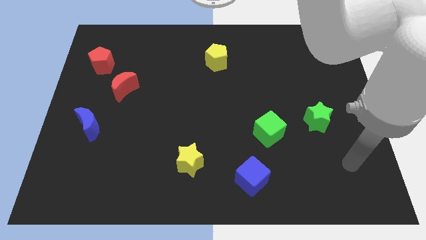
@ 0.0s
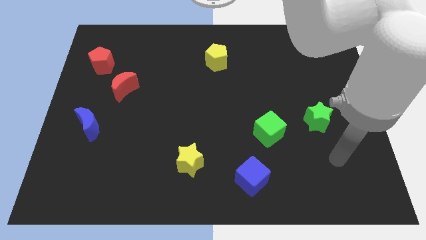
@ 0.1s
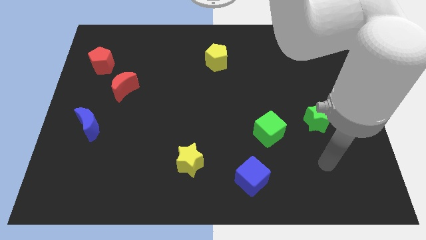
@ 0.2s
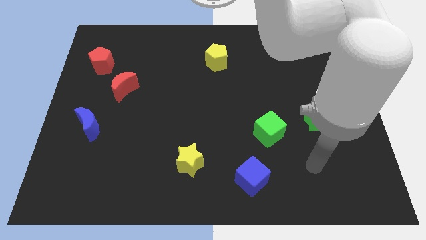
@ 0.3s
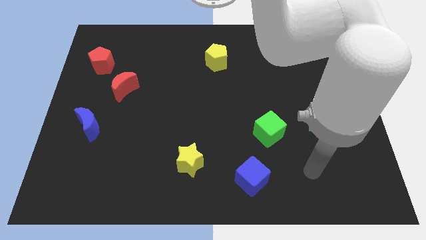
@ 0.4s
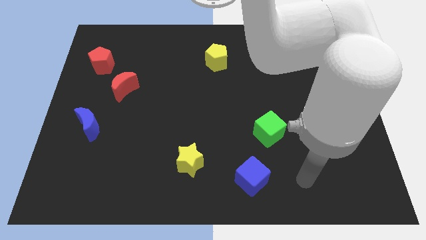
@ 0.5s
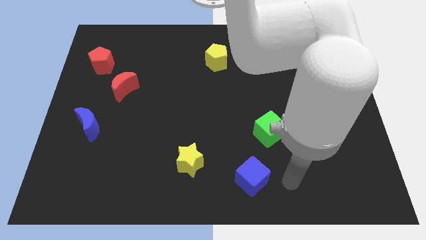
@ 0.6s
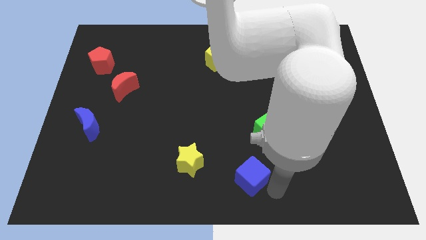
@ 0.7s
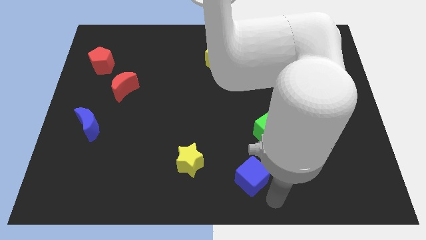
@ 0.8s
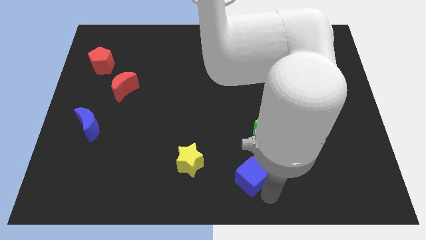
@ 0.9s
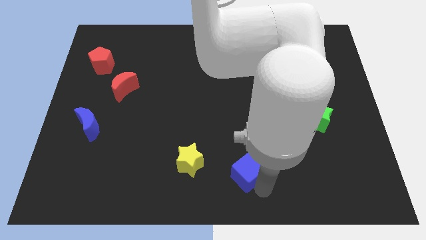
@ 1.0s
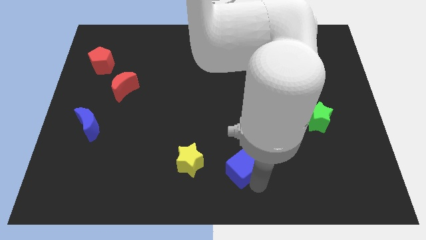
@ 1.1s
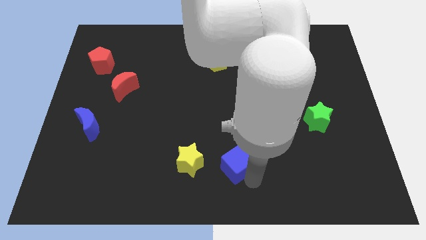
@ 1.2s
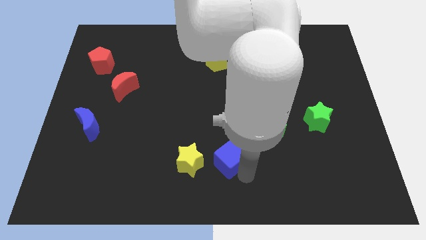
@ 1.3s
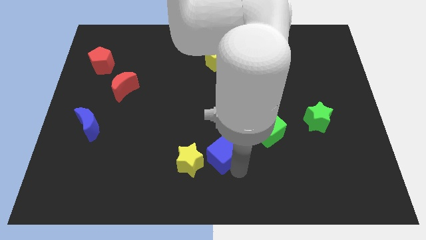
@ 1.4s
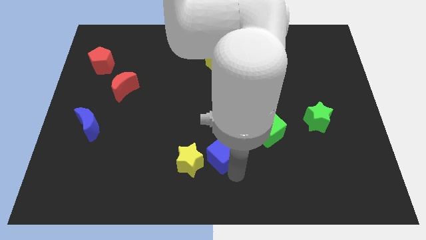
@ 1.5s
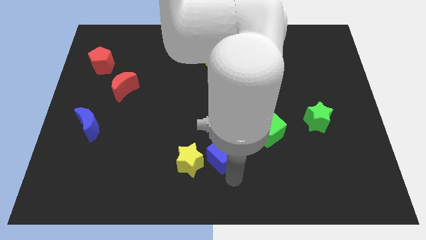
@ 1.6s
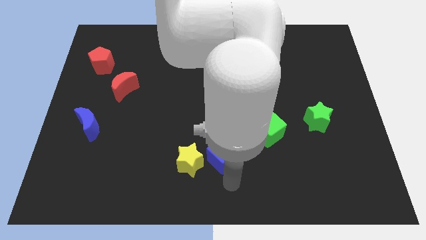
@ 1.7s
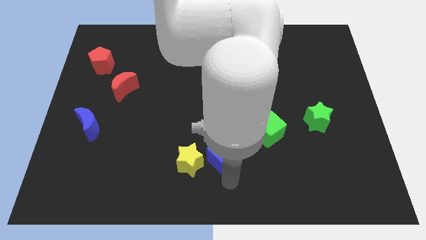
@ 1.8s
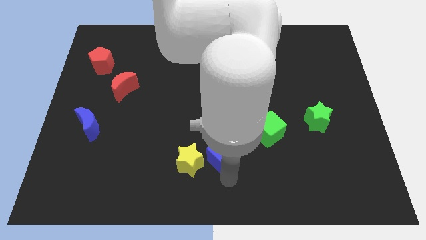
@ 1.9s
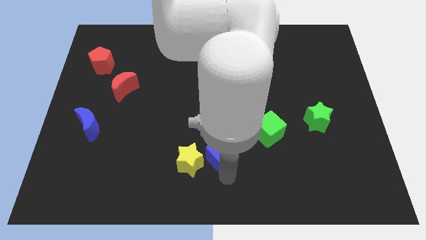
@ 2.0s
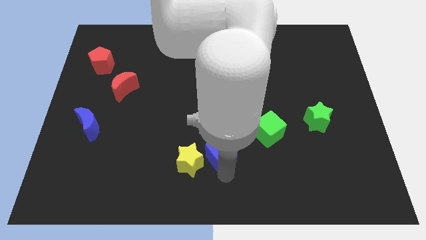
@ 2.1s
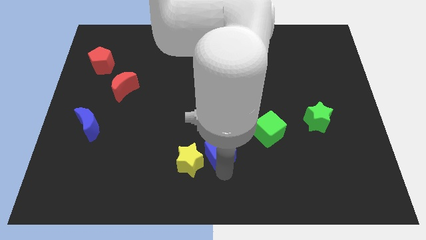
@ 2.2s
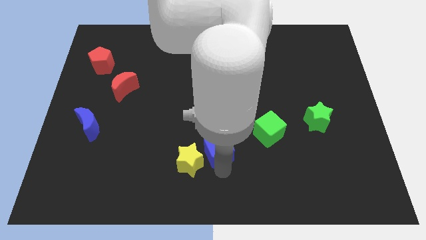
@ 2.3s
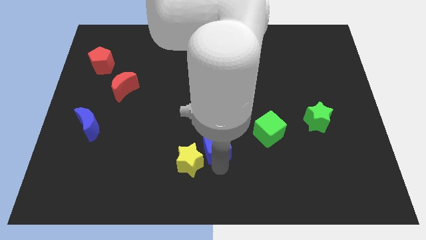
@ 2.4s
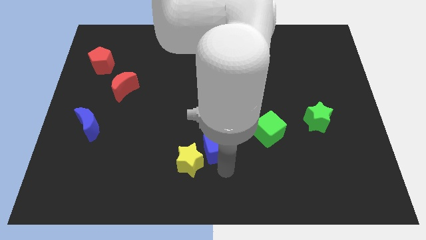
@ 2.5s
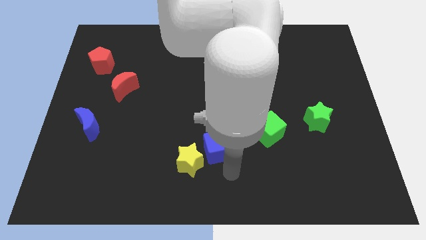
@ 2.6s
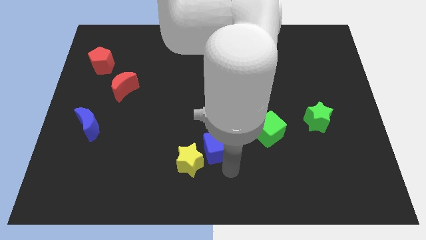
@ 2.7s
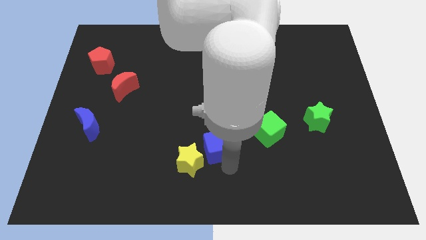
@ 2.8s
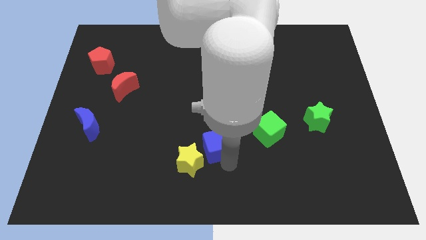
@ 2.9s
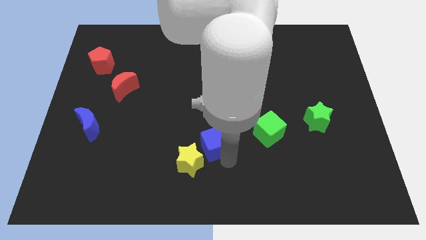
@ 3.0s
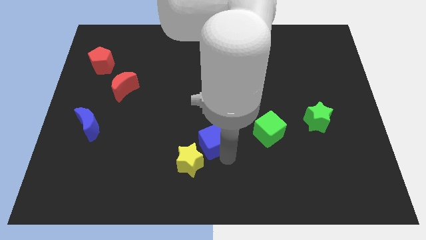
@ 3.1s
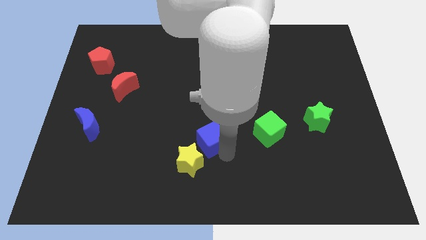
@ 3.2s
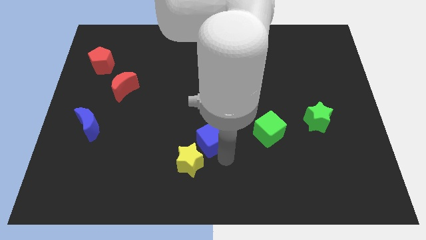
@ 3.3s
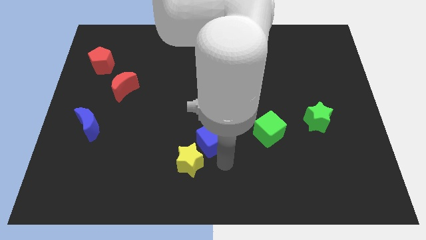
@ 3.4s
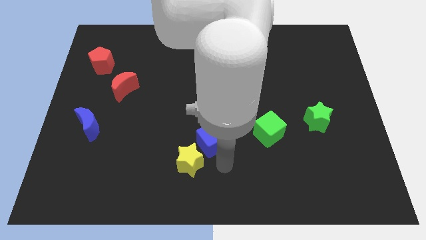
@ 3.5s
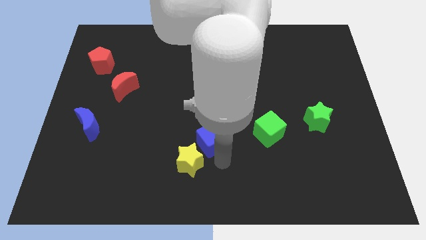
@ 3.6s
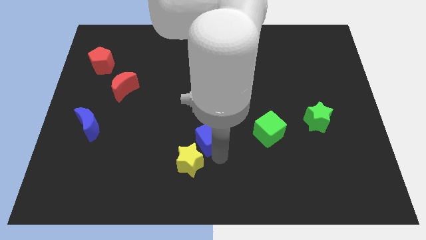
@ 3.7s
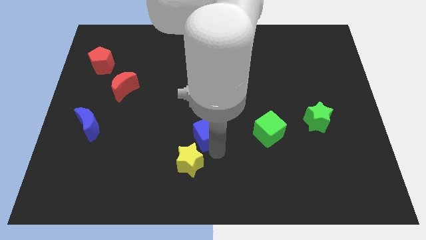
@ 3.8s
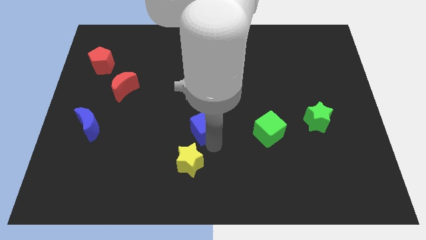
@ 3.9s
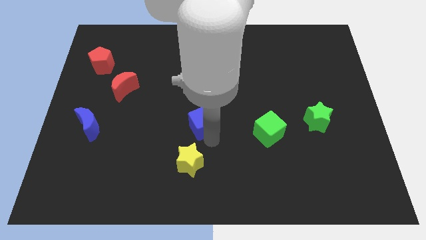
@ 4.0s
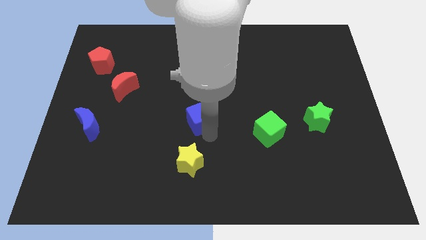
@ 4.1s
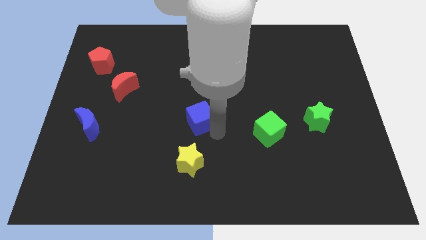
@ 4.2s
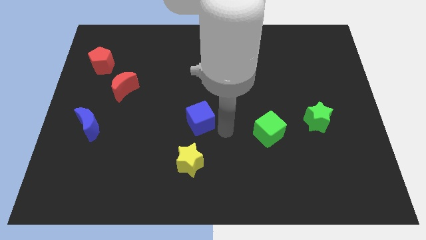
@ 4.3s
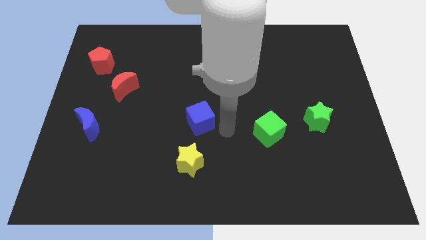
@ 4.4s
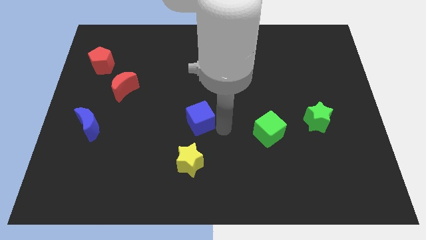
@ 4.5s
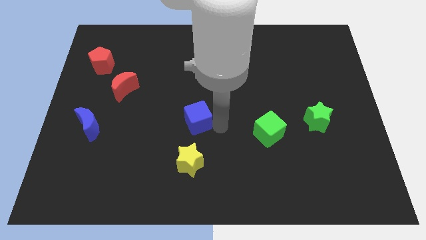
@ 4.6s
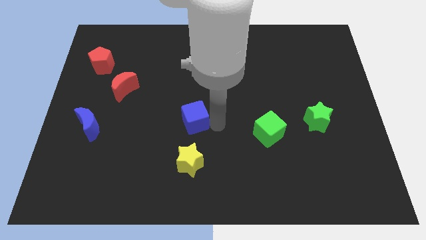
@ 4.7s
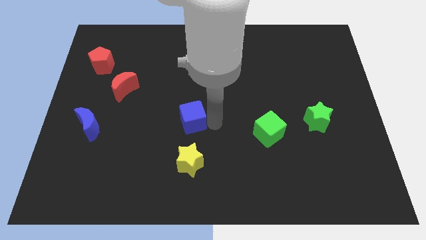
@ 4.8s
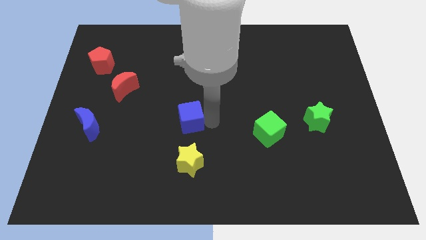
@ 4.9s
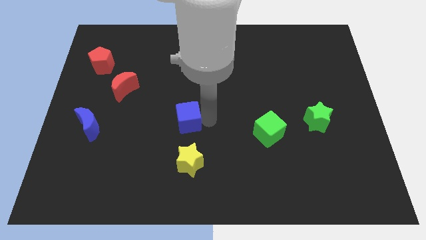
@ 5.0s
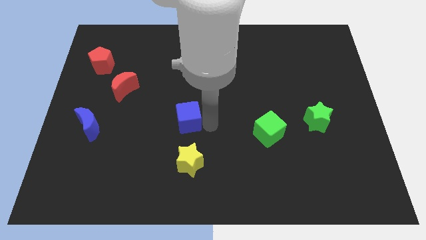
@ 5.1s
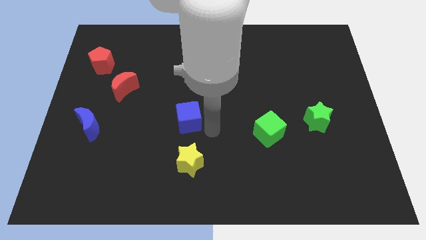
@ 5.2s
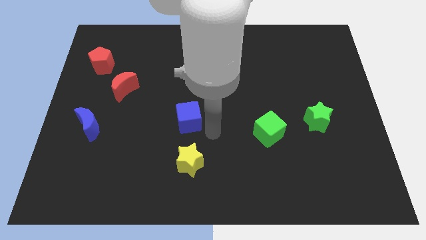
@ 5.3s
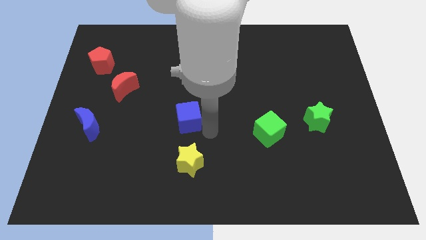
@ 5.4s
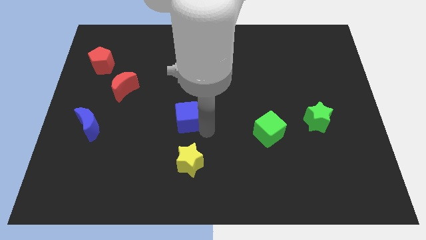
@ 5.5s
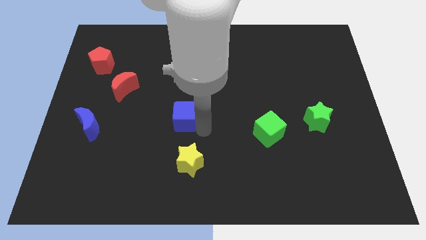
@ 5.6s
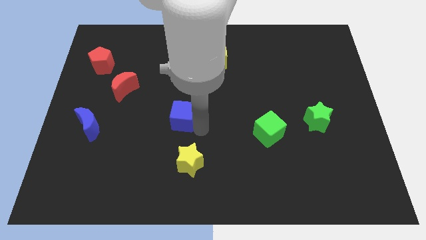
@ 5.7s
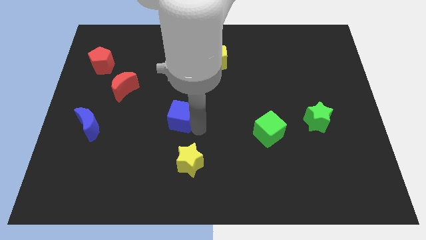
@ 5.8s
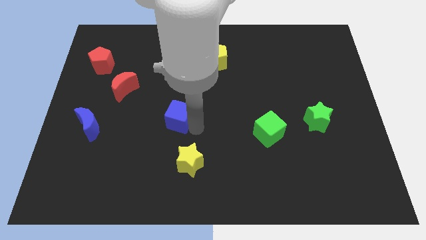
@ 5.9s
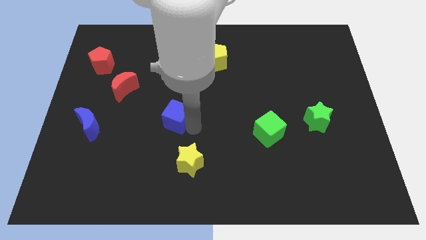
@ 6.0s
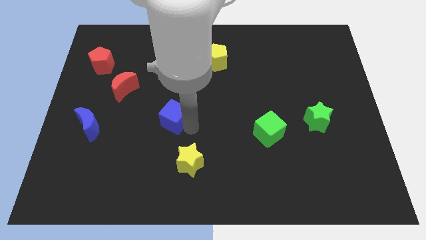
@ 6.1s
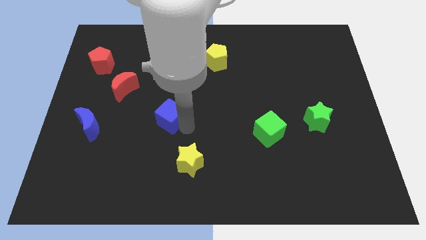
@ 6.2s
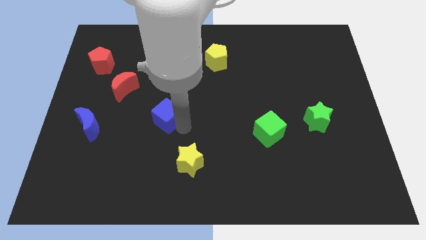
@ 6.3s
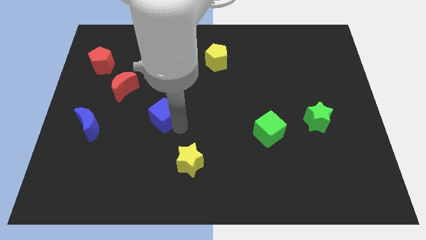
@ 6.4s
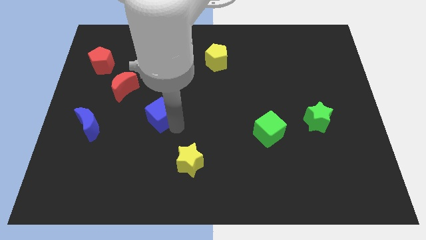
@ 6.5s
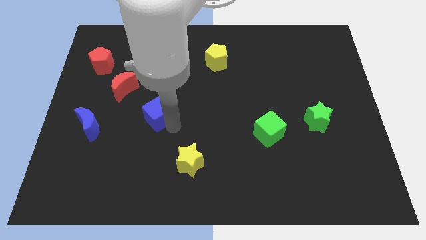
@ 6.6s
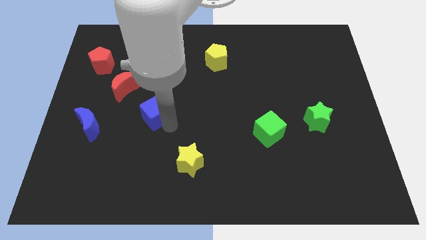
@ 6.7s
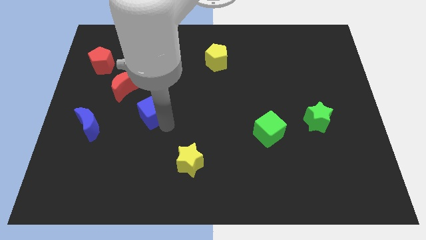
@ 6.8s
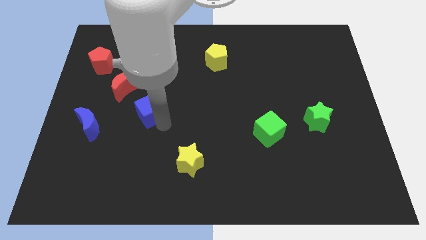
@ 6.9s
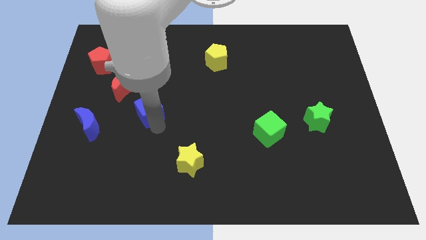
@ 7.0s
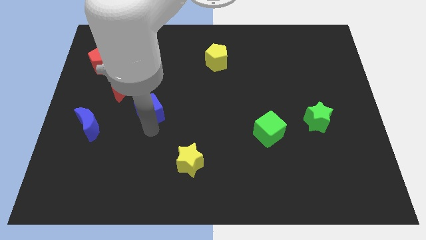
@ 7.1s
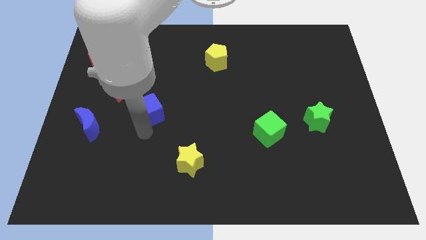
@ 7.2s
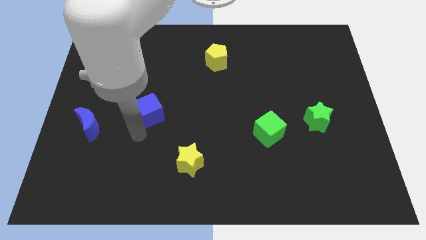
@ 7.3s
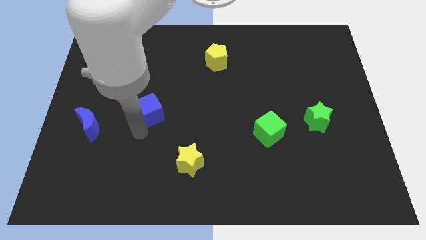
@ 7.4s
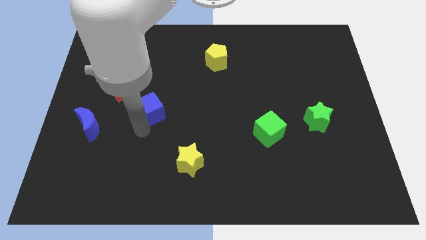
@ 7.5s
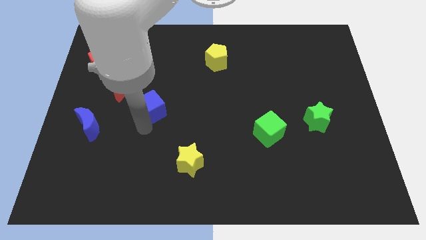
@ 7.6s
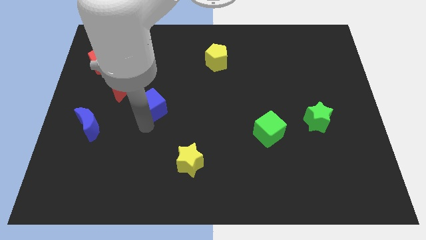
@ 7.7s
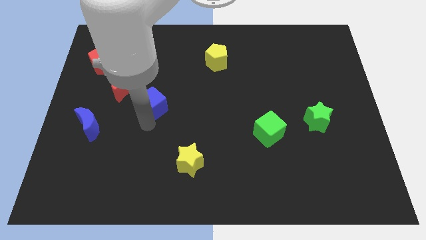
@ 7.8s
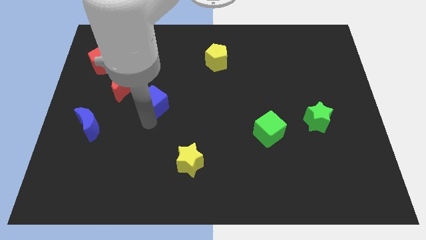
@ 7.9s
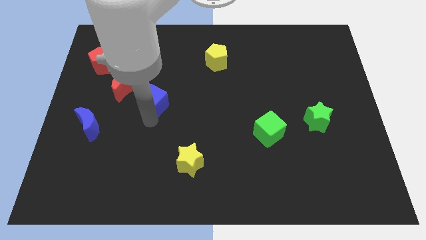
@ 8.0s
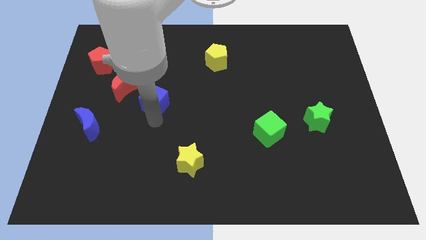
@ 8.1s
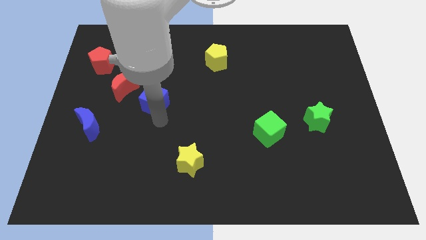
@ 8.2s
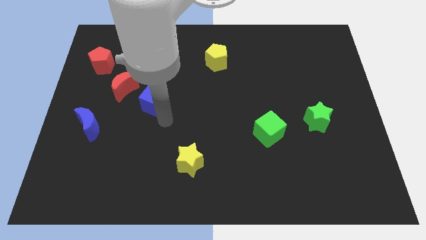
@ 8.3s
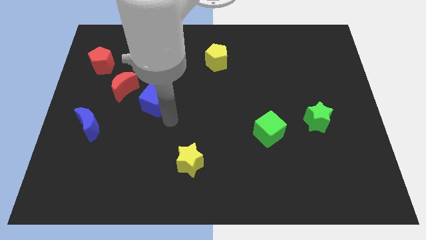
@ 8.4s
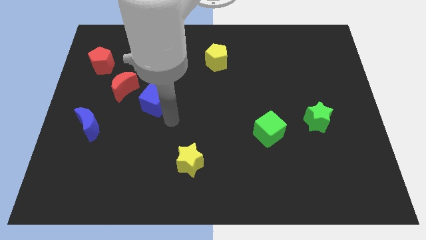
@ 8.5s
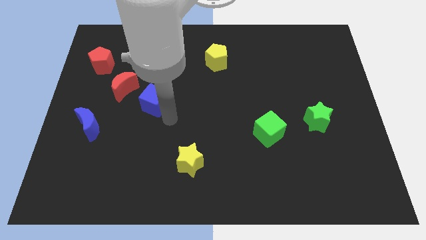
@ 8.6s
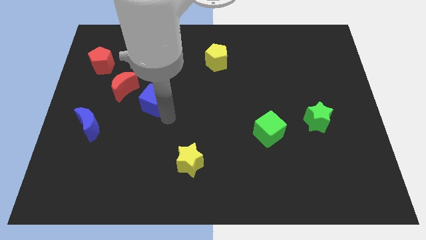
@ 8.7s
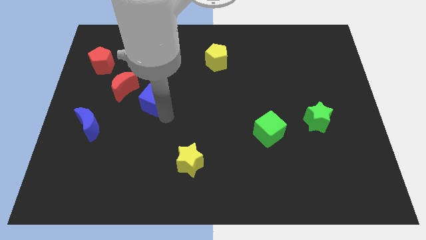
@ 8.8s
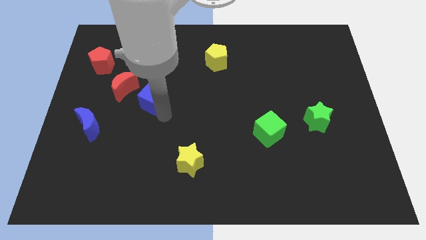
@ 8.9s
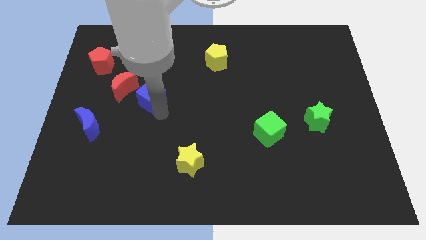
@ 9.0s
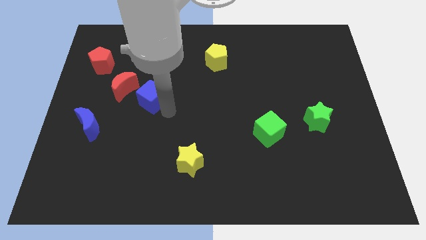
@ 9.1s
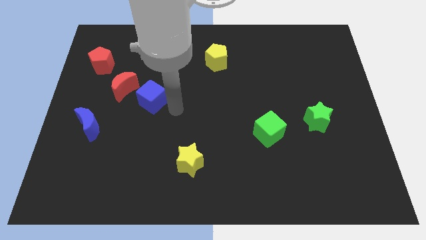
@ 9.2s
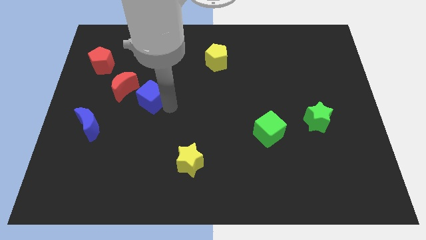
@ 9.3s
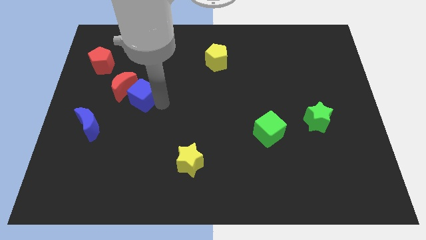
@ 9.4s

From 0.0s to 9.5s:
move the blue cube to the red moon
